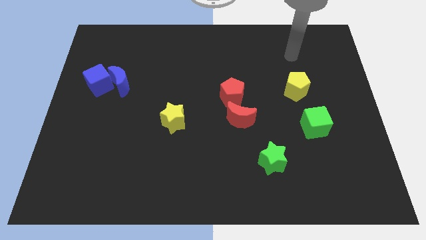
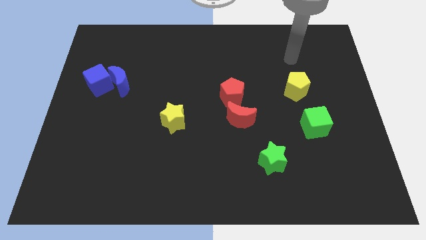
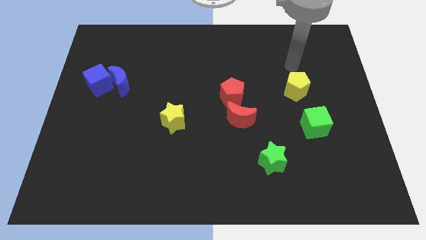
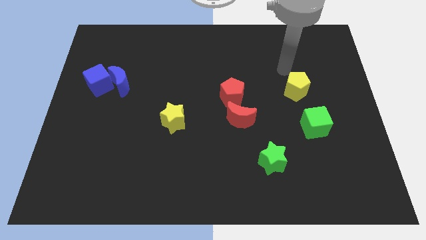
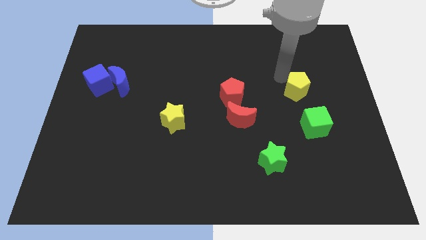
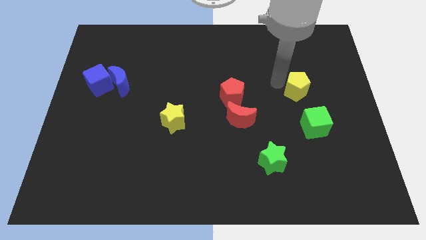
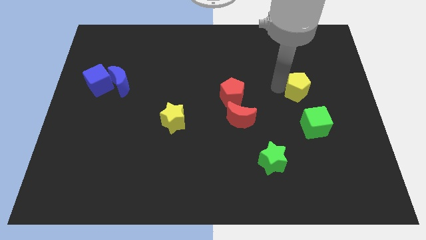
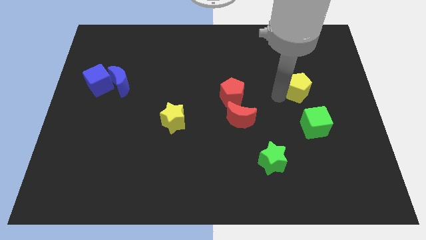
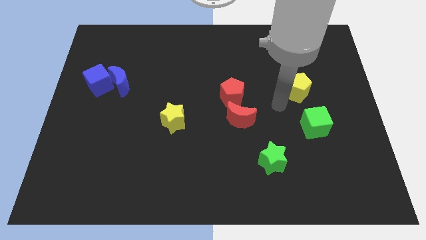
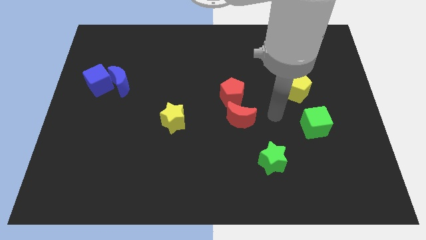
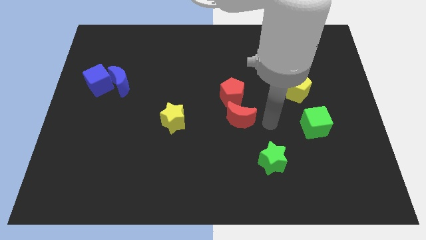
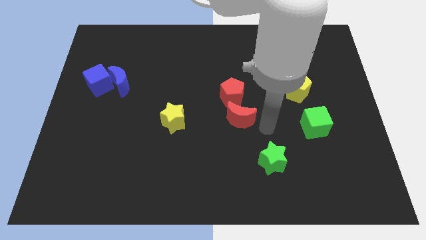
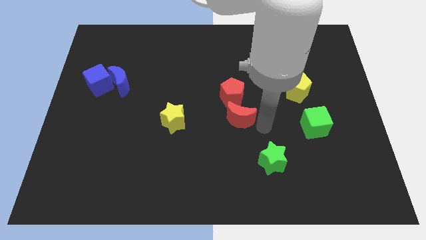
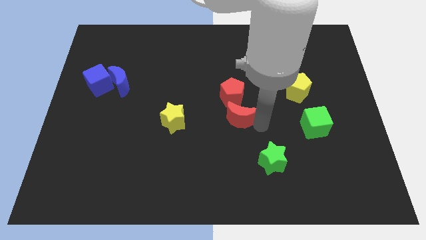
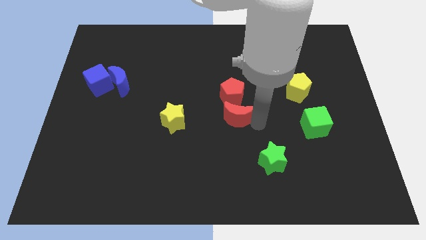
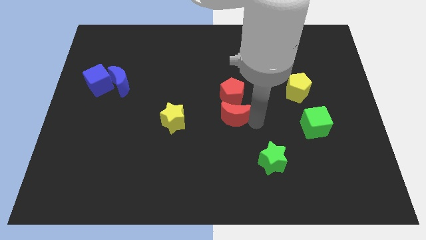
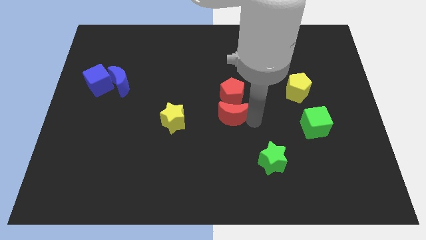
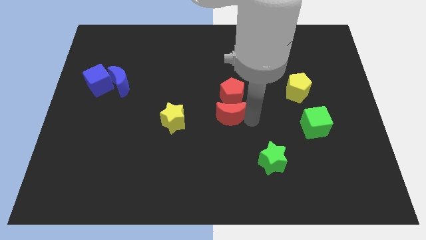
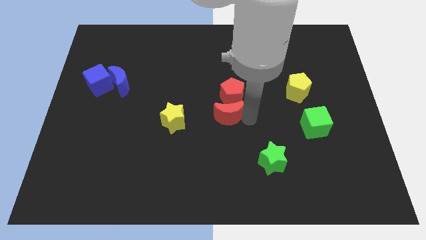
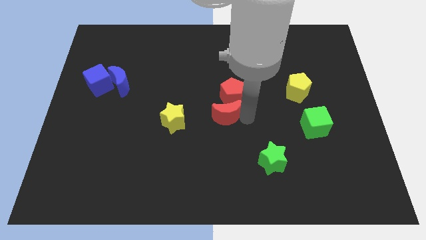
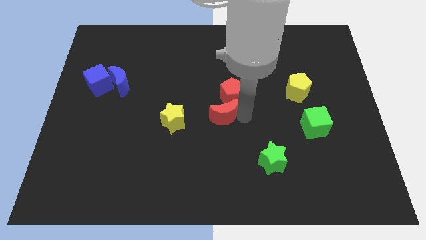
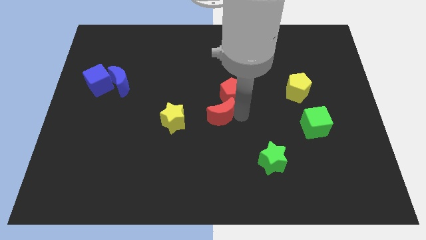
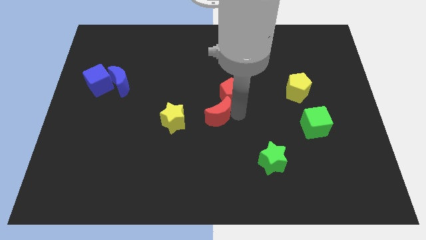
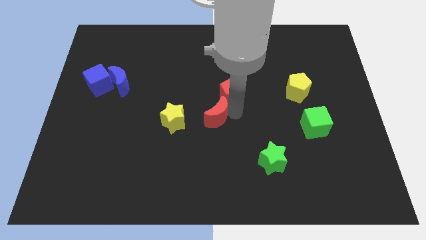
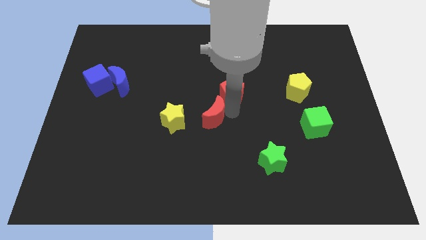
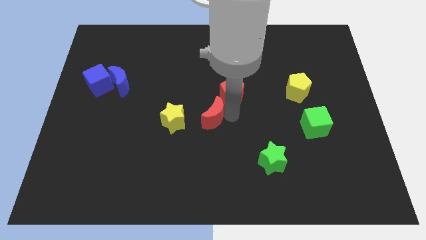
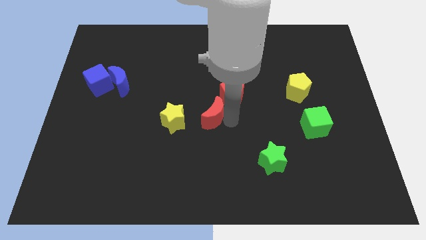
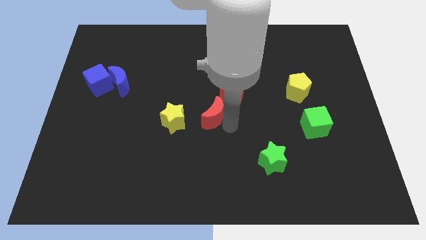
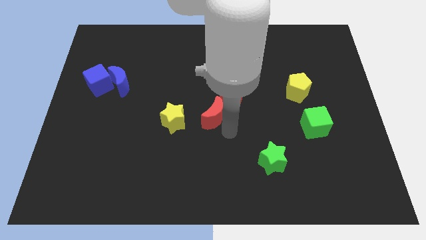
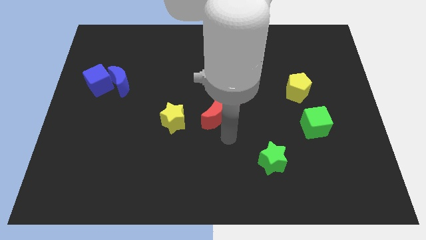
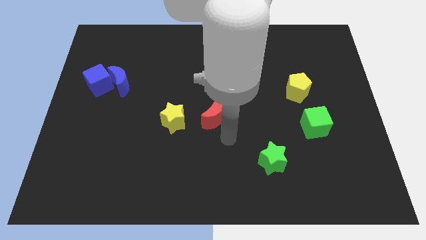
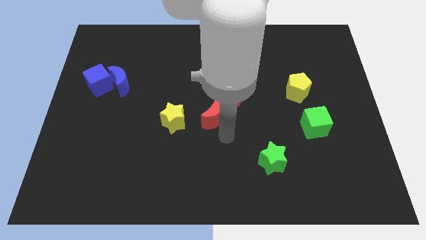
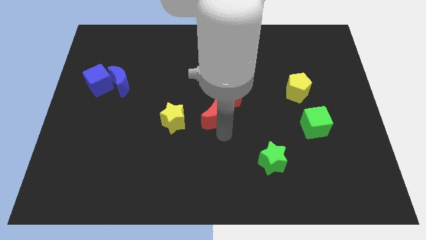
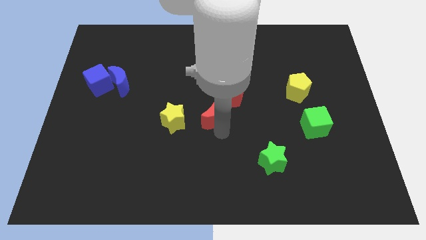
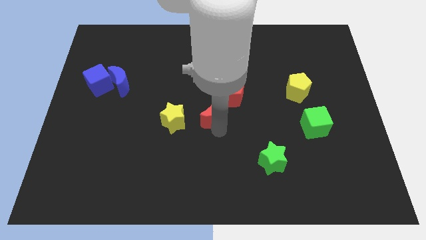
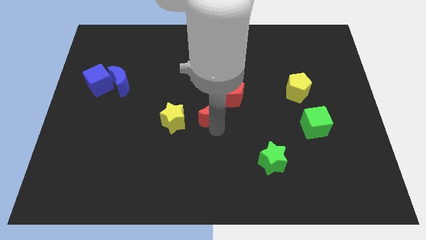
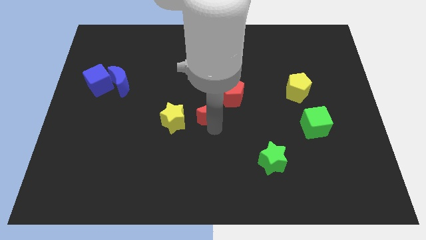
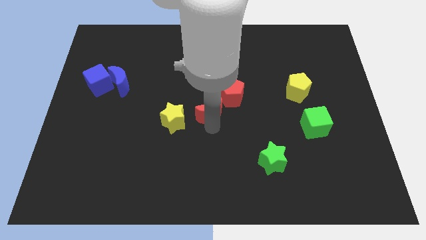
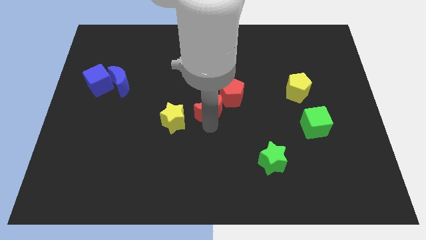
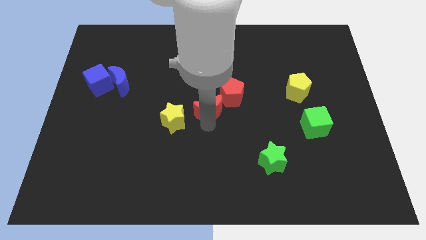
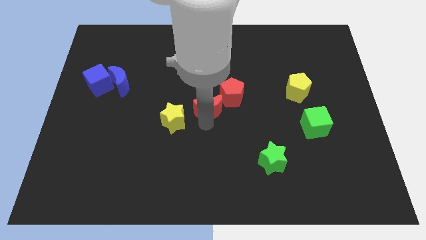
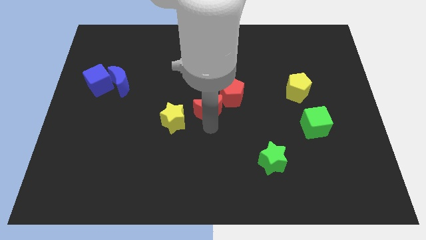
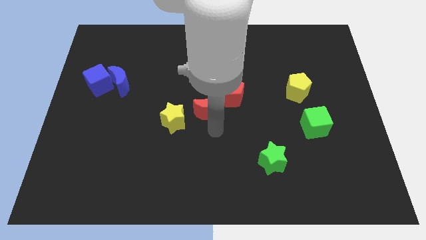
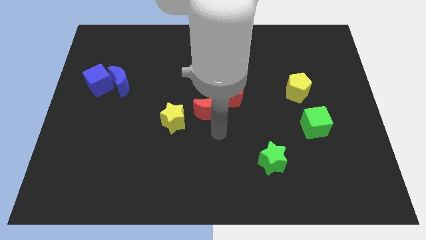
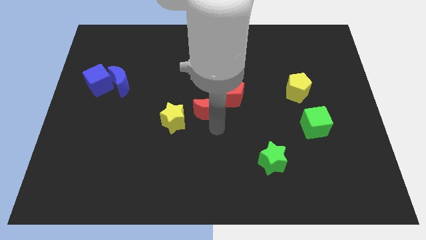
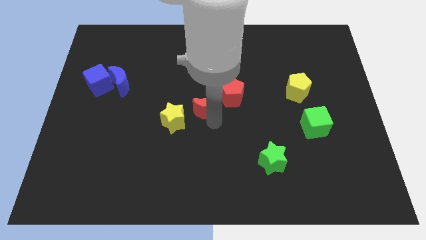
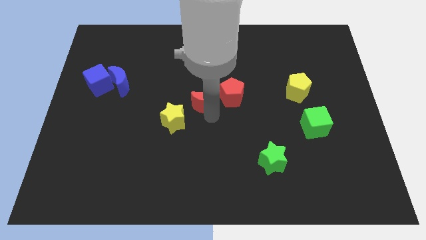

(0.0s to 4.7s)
slide the red moon diagonally up and left a bit

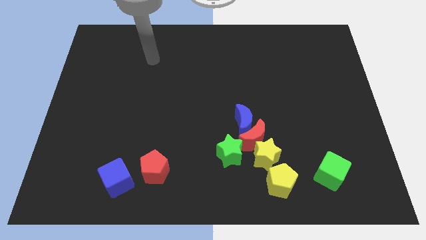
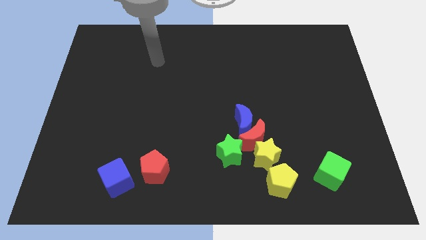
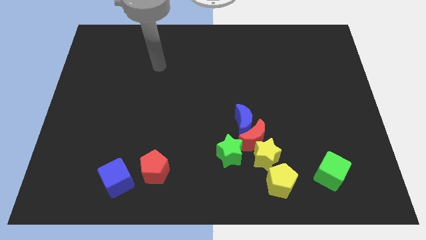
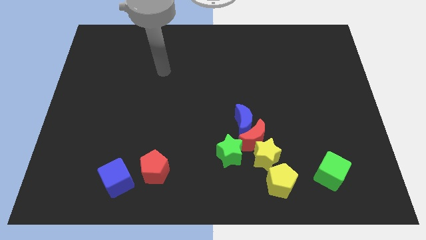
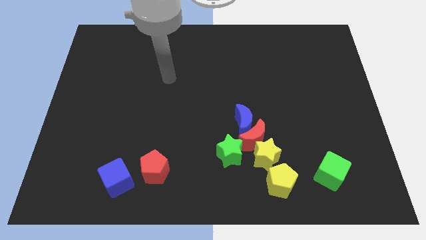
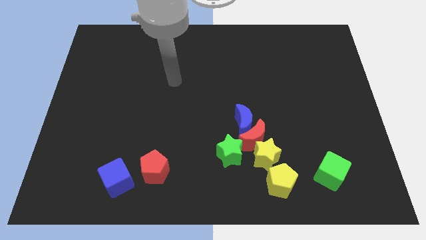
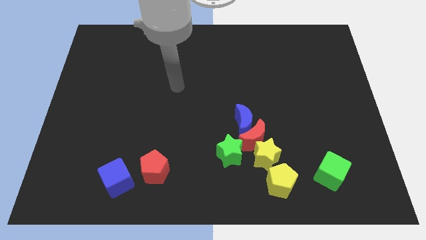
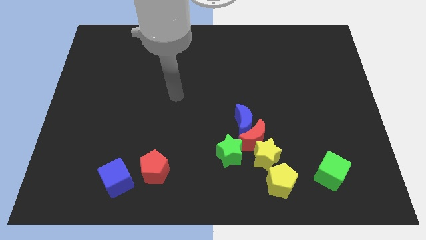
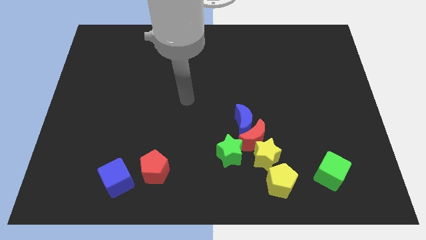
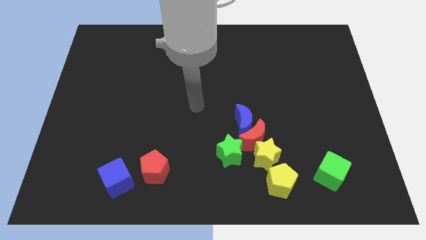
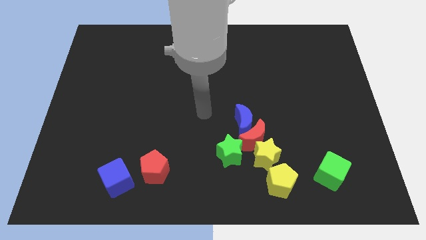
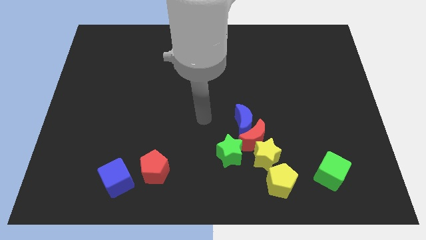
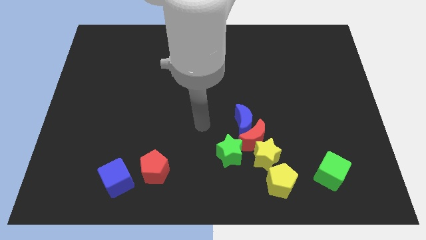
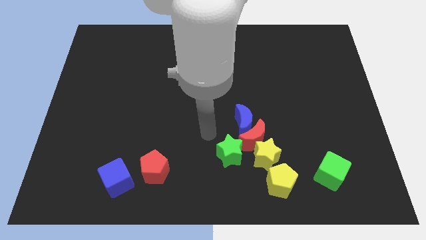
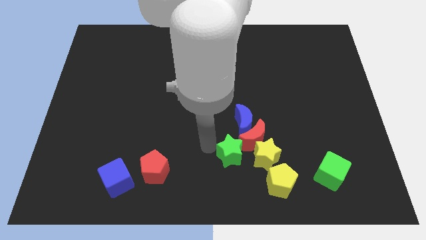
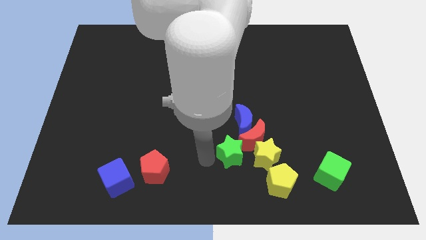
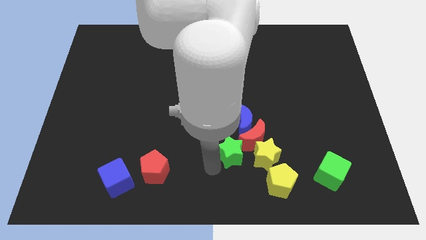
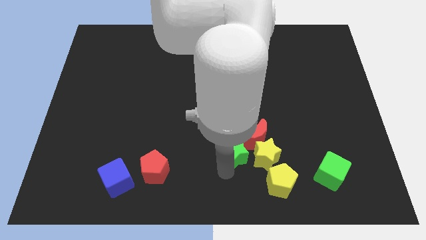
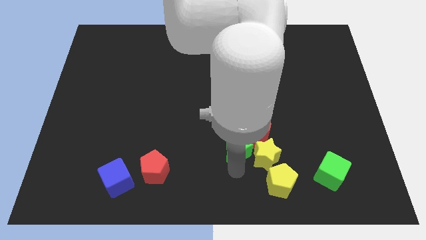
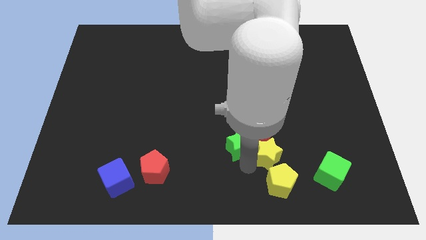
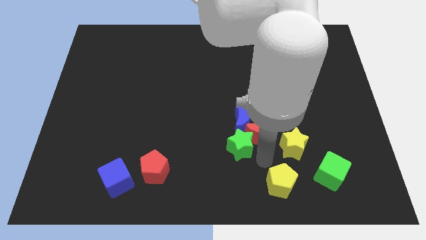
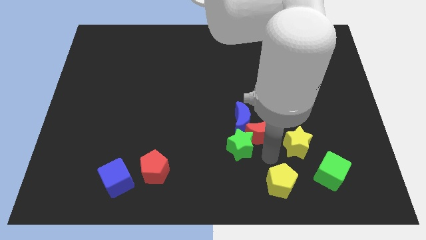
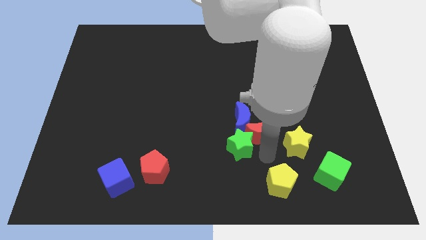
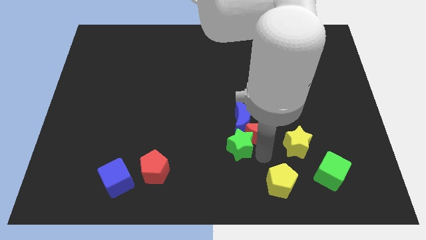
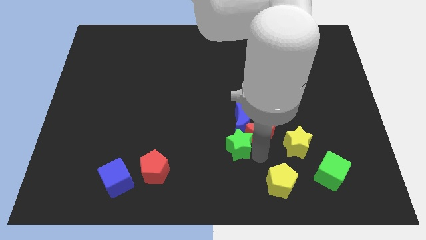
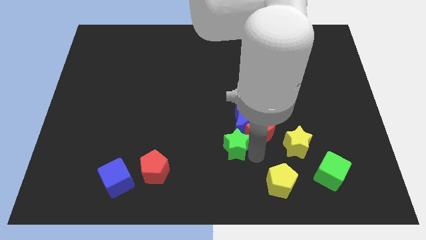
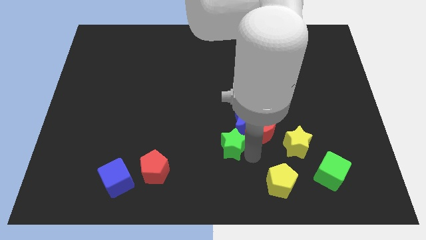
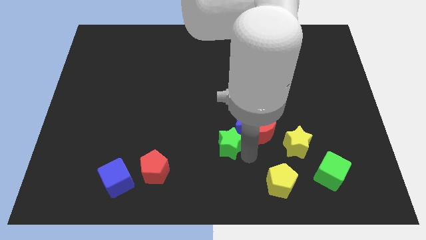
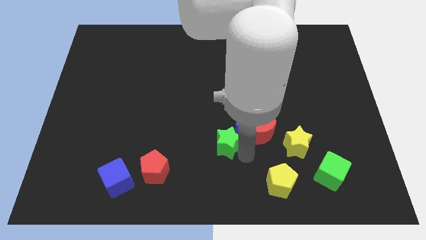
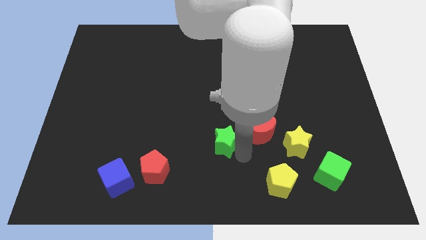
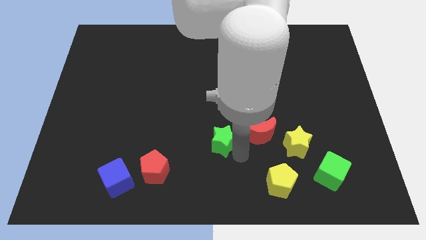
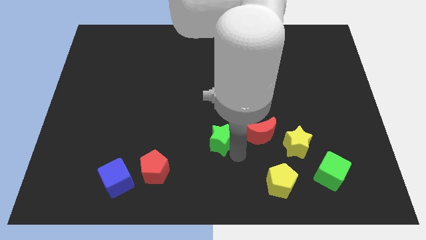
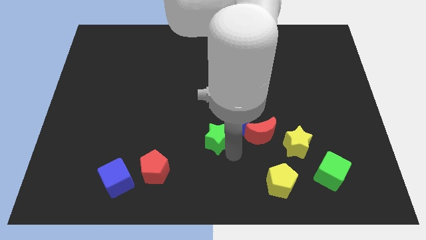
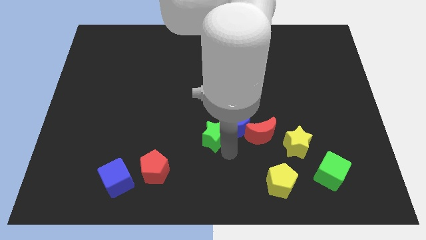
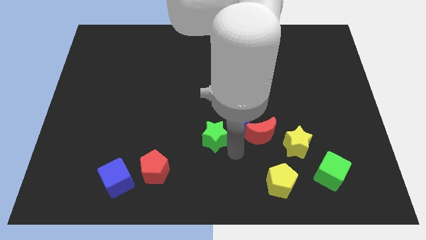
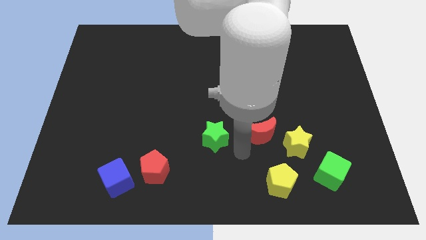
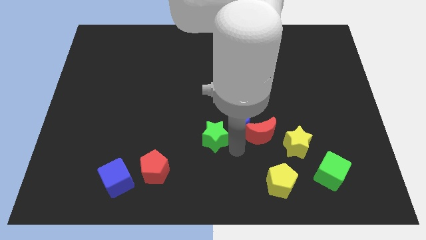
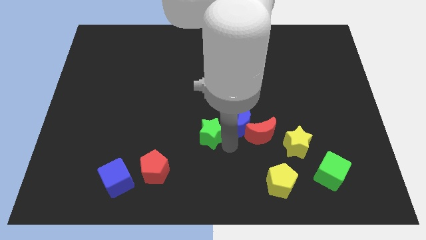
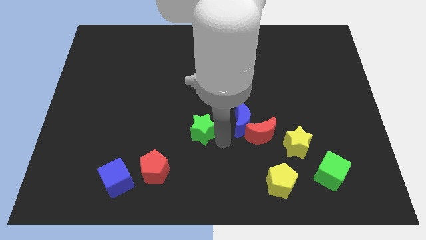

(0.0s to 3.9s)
slightly push the green star up and left diagonally
